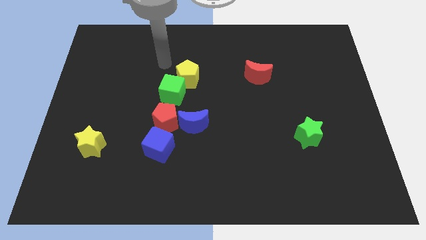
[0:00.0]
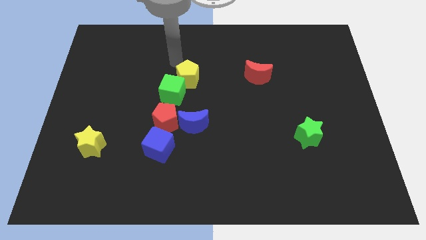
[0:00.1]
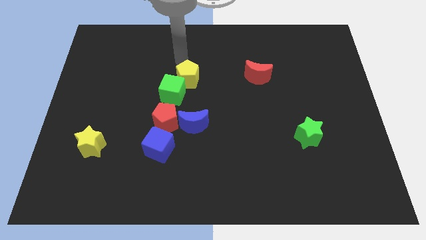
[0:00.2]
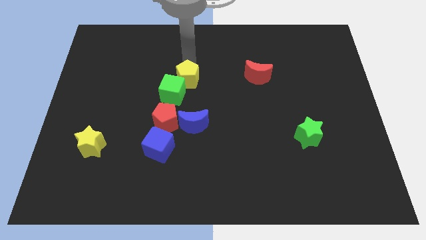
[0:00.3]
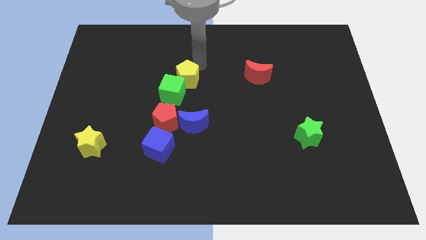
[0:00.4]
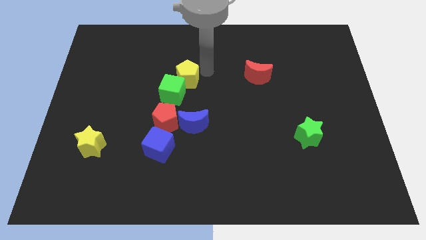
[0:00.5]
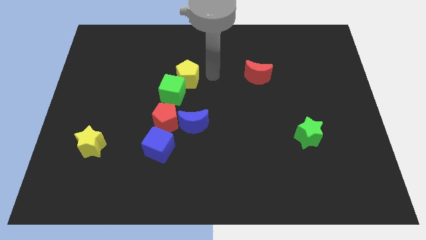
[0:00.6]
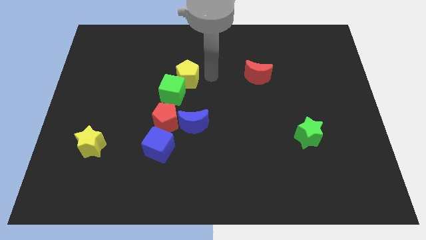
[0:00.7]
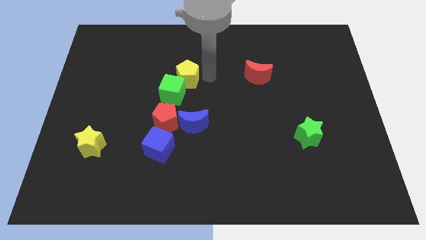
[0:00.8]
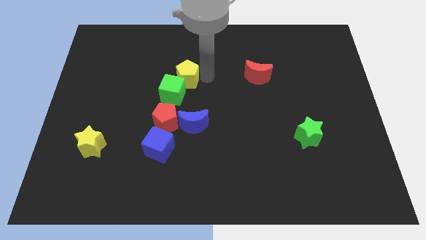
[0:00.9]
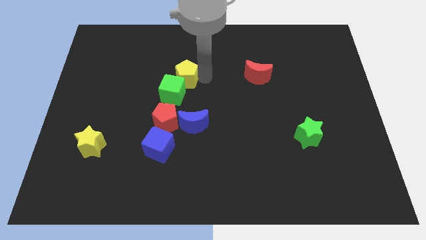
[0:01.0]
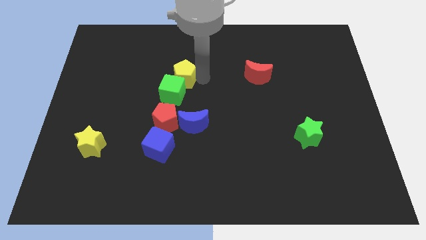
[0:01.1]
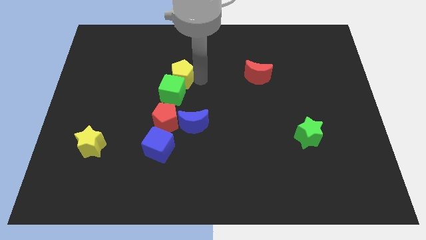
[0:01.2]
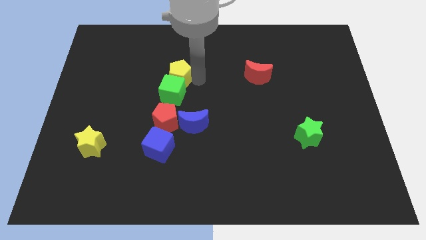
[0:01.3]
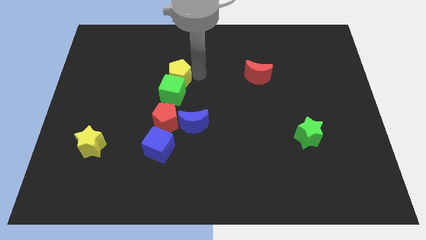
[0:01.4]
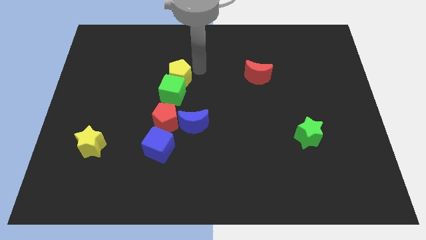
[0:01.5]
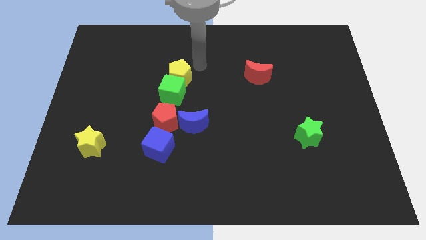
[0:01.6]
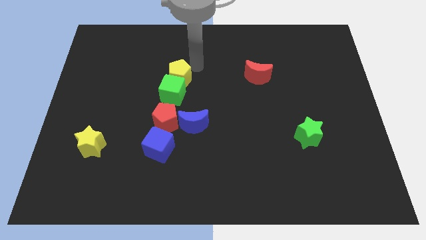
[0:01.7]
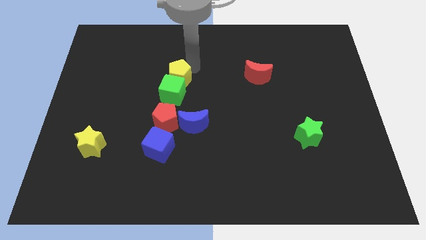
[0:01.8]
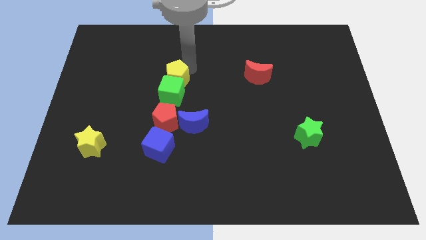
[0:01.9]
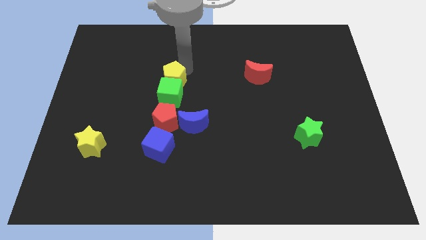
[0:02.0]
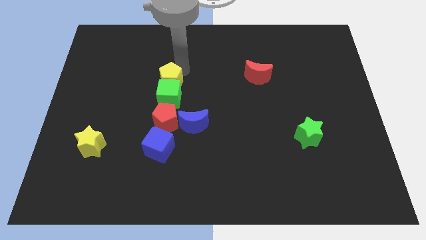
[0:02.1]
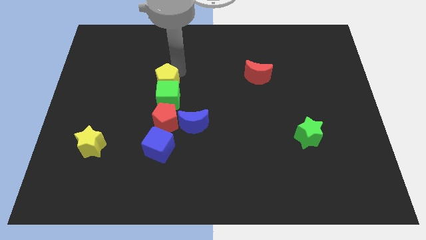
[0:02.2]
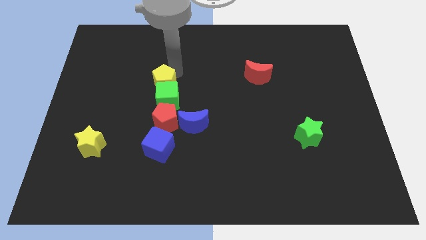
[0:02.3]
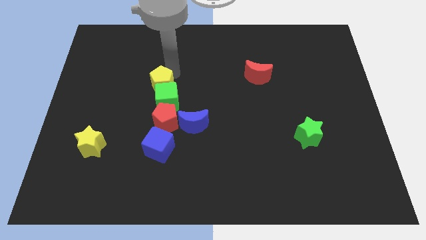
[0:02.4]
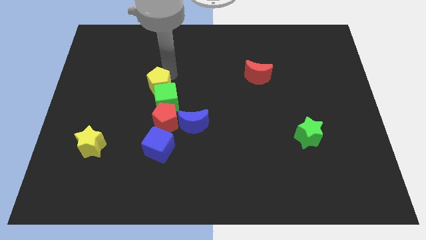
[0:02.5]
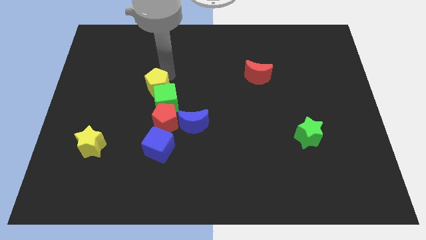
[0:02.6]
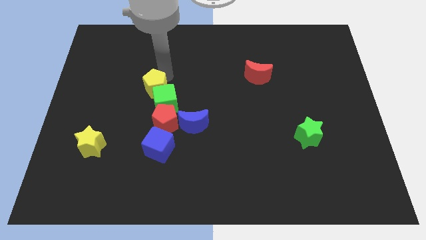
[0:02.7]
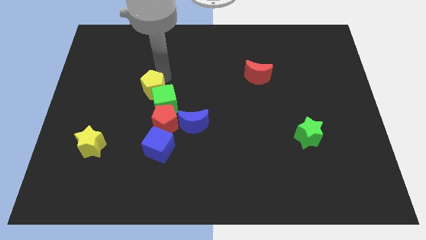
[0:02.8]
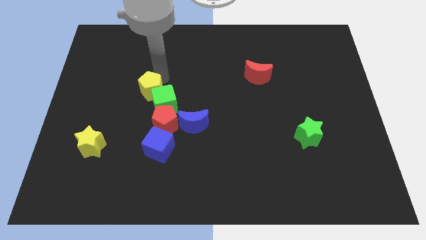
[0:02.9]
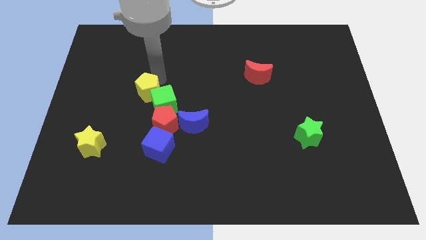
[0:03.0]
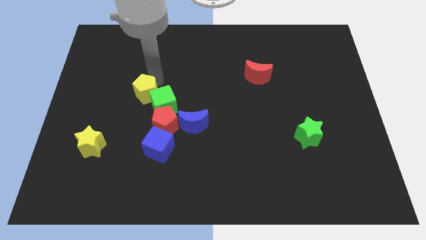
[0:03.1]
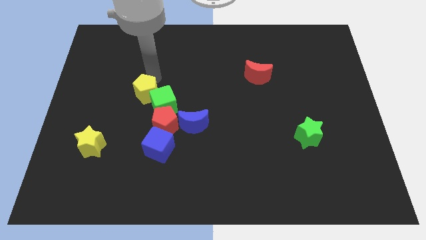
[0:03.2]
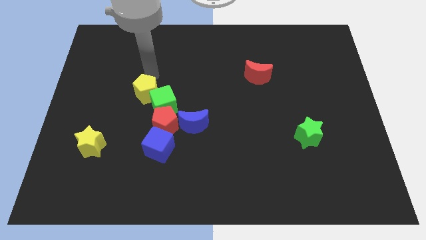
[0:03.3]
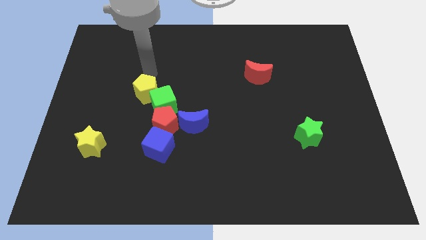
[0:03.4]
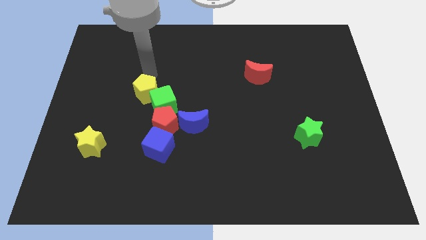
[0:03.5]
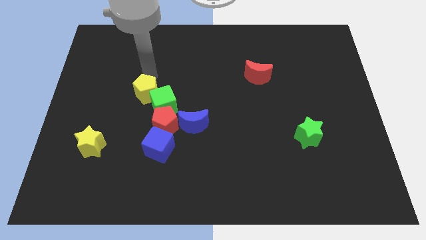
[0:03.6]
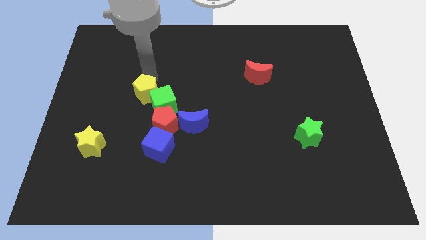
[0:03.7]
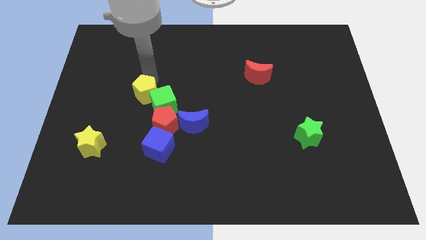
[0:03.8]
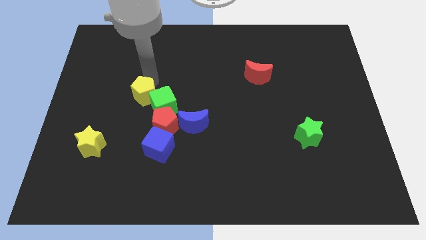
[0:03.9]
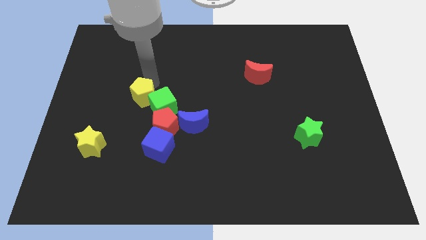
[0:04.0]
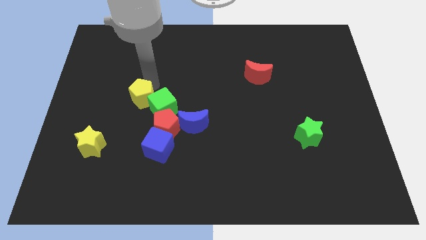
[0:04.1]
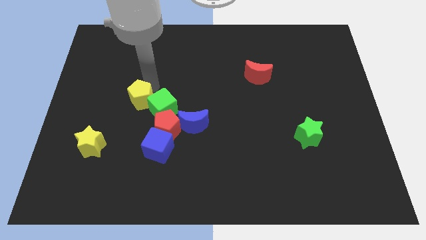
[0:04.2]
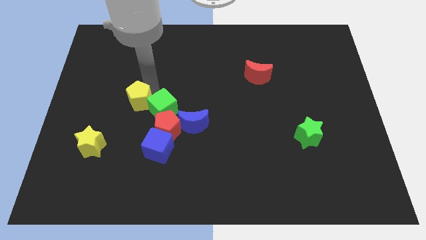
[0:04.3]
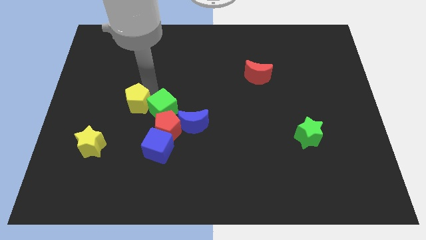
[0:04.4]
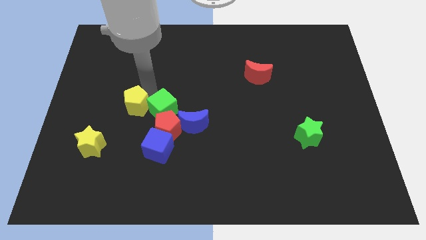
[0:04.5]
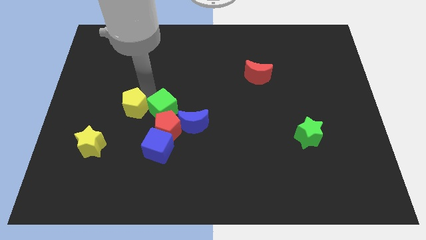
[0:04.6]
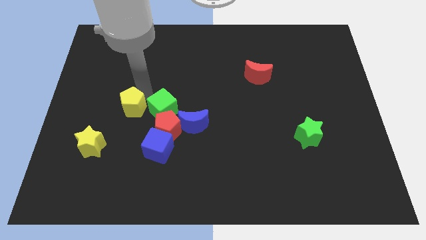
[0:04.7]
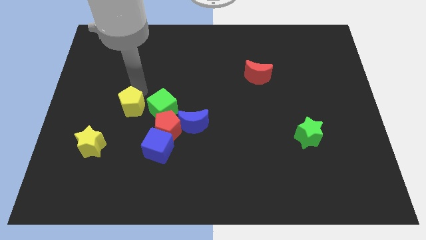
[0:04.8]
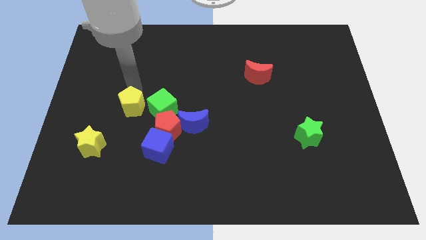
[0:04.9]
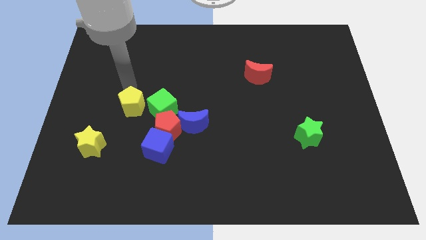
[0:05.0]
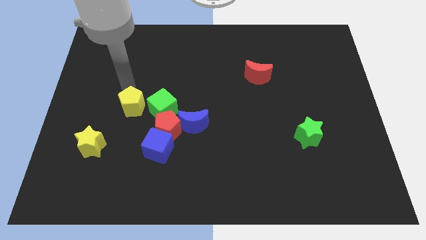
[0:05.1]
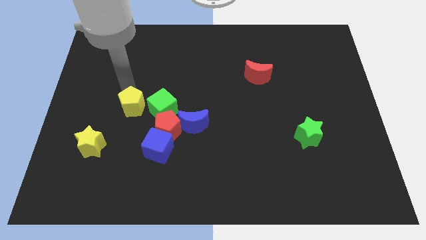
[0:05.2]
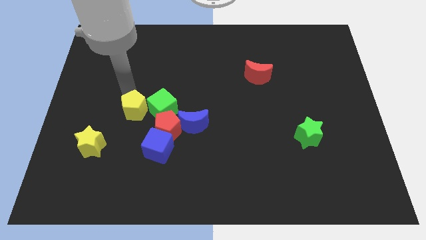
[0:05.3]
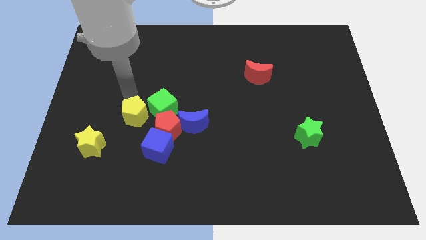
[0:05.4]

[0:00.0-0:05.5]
move the yellow pentagon diagonally up and to the left of the blue cube

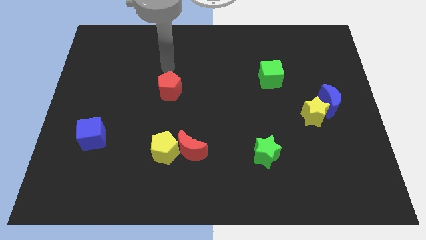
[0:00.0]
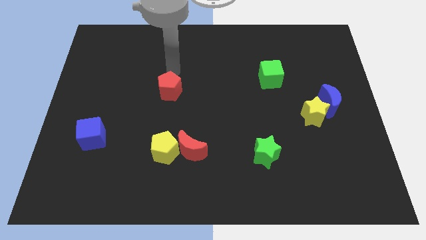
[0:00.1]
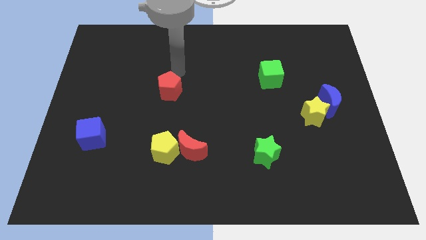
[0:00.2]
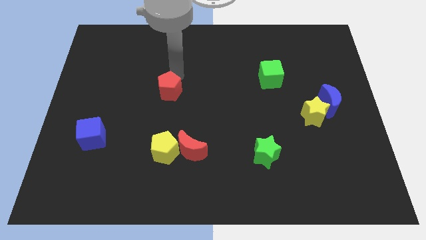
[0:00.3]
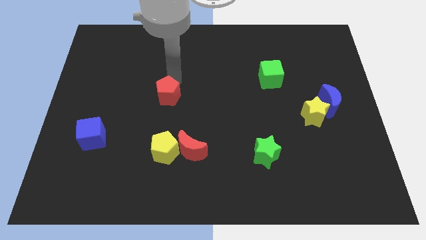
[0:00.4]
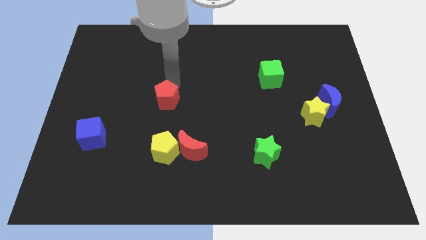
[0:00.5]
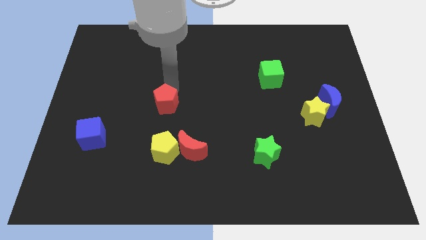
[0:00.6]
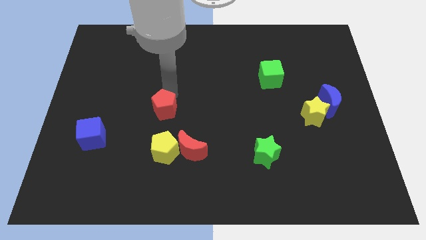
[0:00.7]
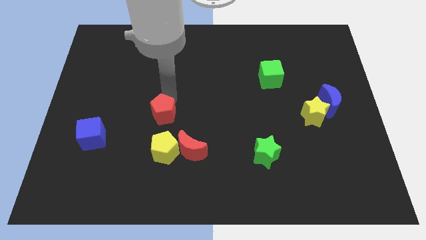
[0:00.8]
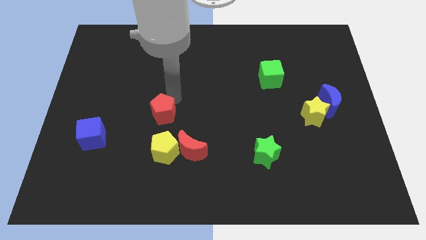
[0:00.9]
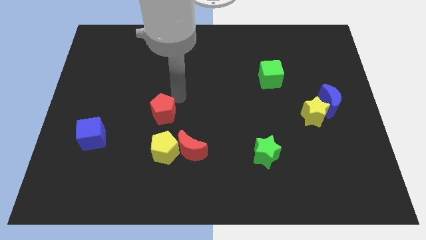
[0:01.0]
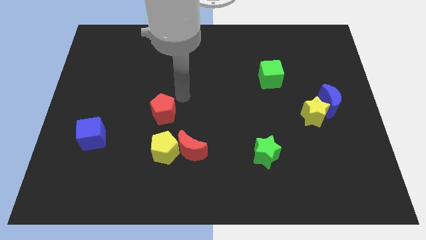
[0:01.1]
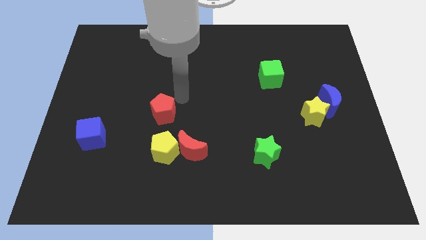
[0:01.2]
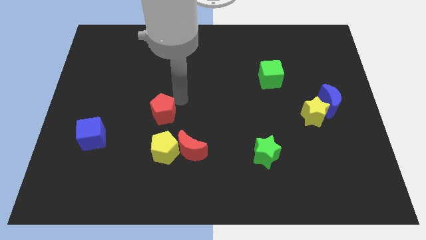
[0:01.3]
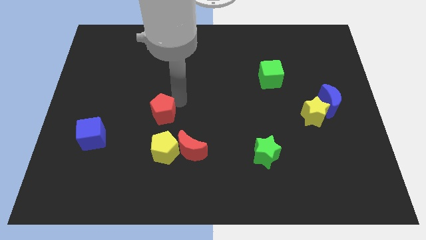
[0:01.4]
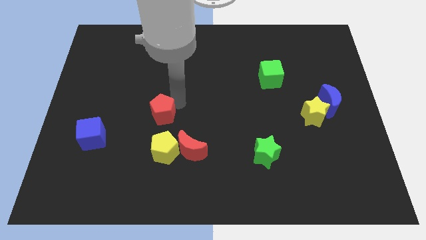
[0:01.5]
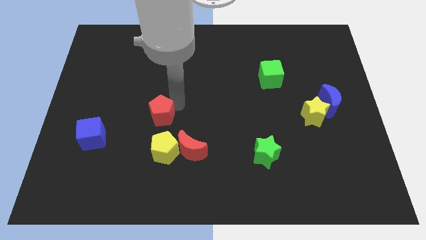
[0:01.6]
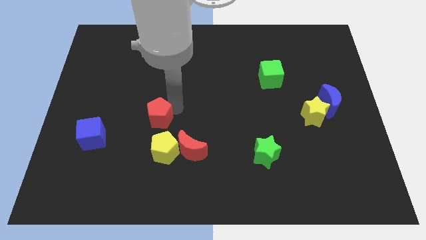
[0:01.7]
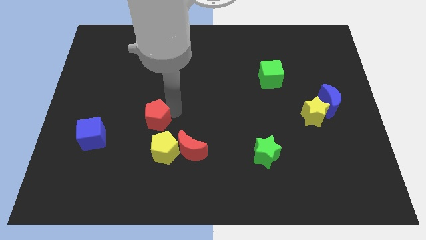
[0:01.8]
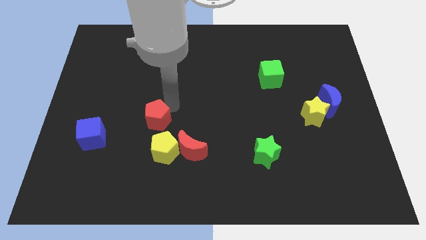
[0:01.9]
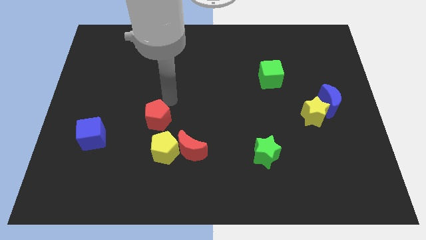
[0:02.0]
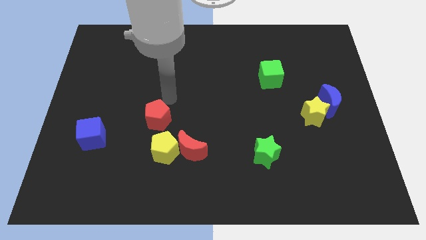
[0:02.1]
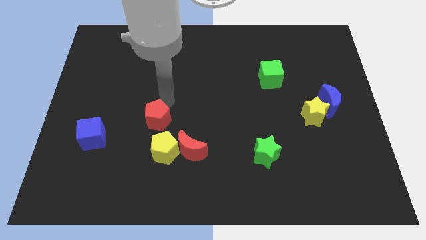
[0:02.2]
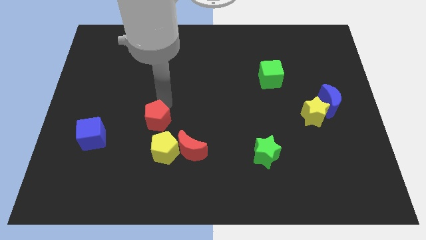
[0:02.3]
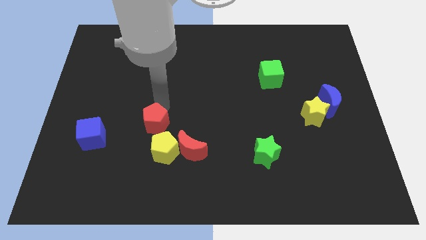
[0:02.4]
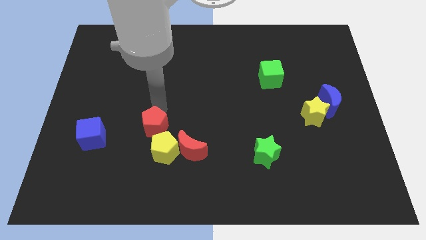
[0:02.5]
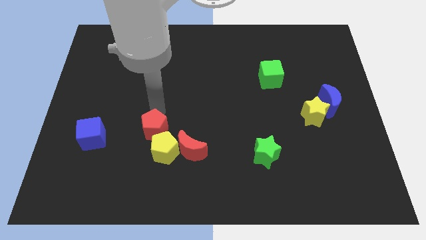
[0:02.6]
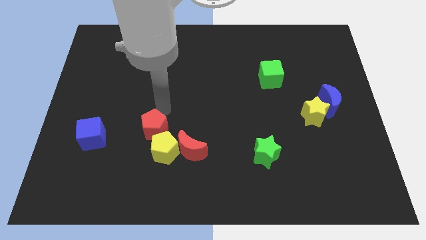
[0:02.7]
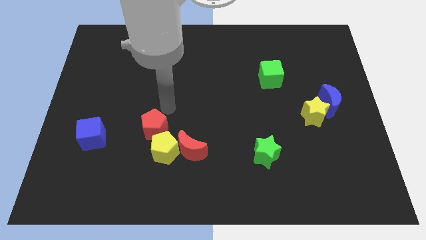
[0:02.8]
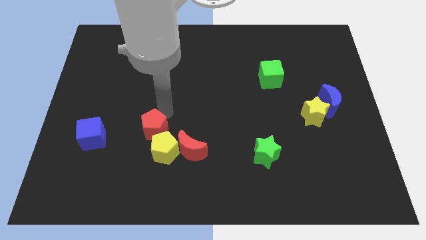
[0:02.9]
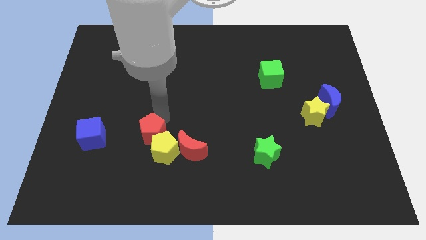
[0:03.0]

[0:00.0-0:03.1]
move the red pentagon to the left side of the red moon
